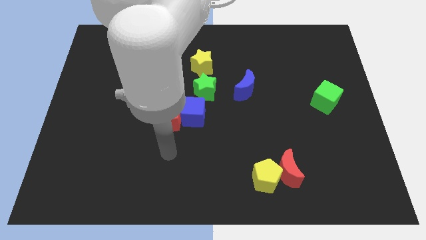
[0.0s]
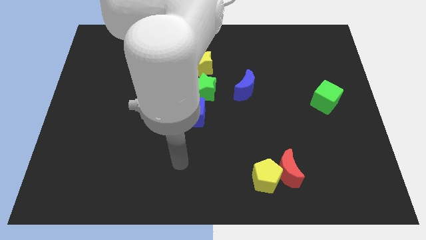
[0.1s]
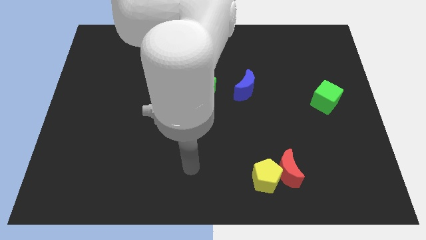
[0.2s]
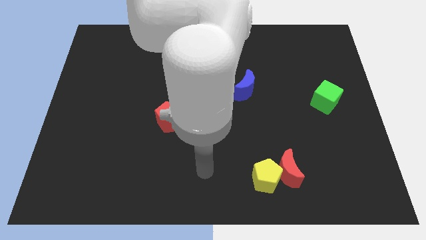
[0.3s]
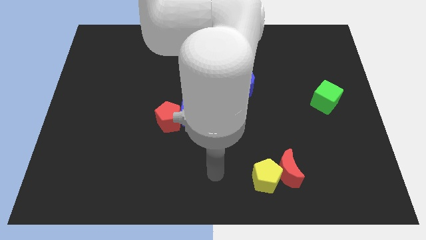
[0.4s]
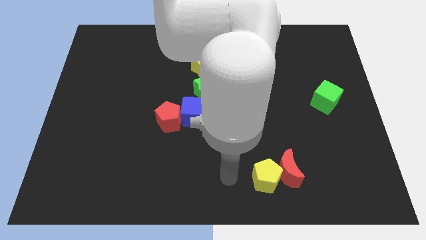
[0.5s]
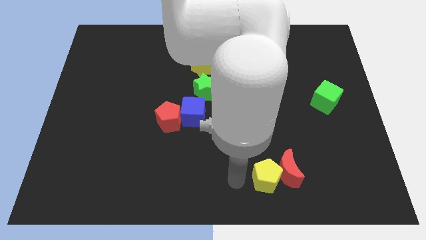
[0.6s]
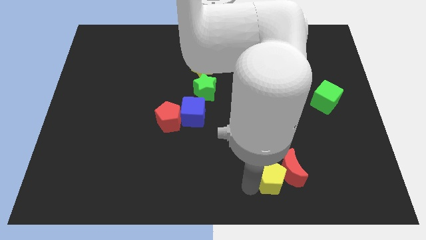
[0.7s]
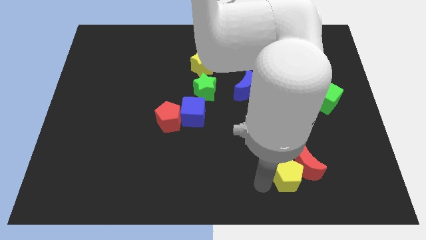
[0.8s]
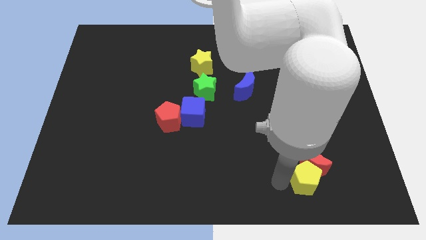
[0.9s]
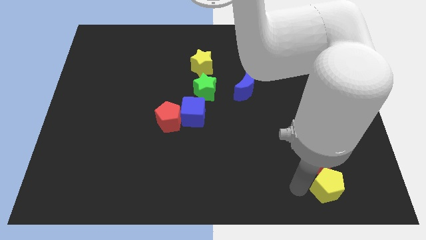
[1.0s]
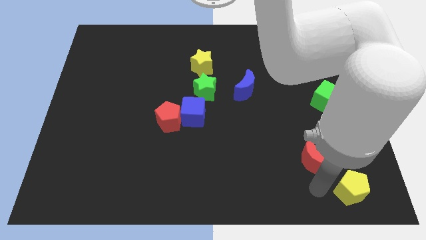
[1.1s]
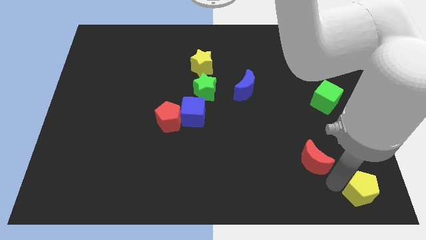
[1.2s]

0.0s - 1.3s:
separate the red moon from the yellow pentagon

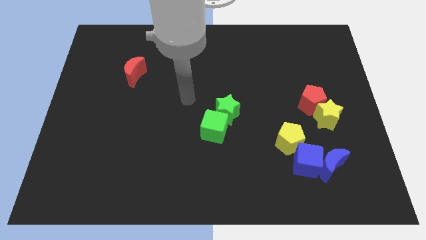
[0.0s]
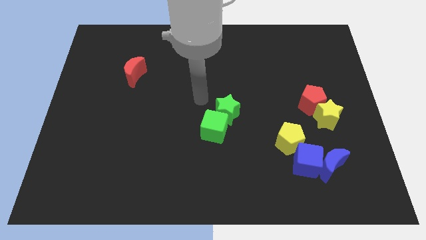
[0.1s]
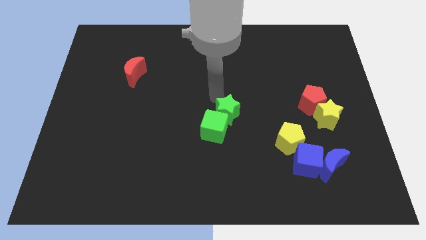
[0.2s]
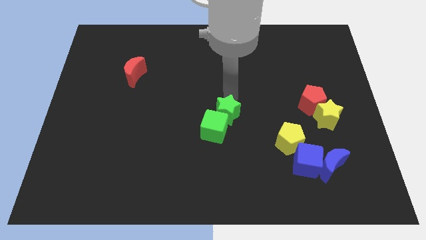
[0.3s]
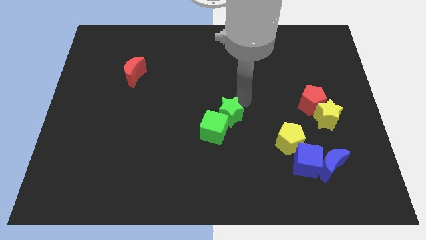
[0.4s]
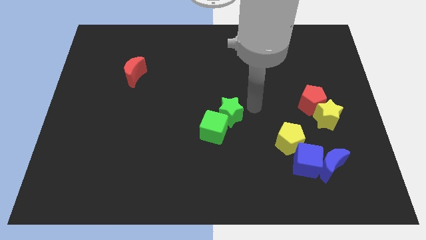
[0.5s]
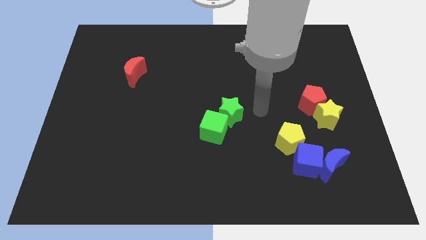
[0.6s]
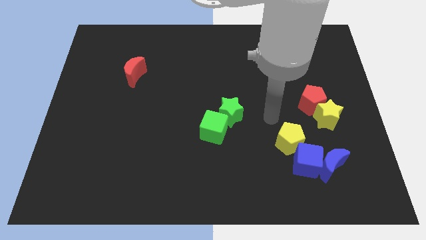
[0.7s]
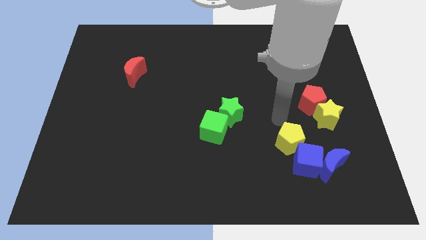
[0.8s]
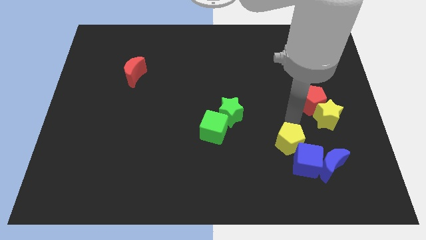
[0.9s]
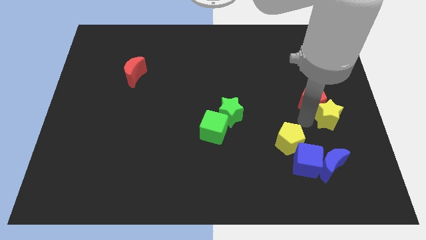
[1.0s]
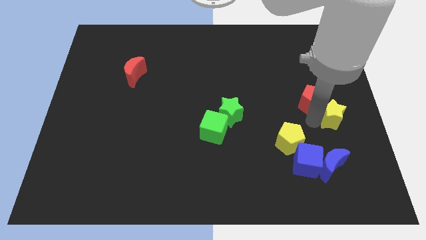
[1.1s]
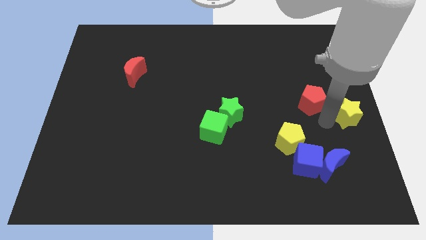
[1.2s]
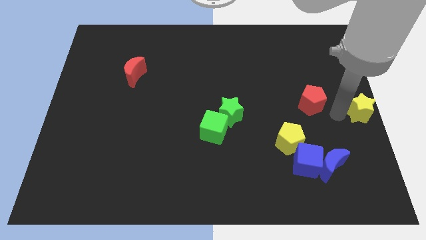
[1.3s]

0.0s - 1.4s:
move the red pentagon away from the yellow star

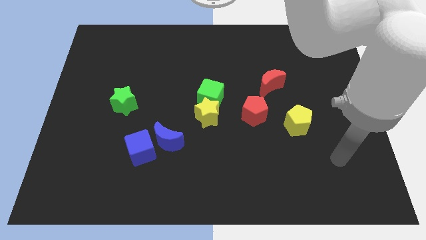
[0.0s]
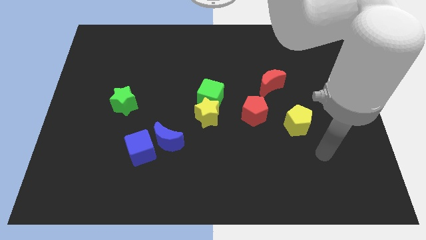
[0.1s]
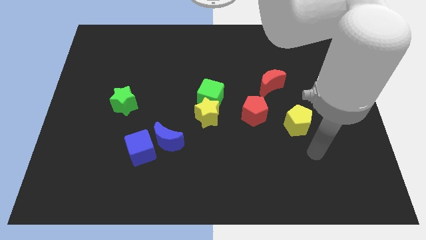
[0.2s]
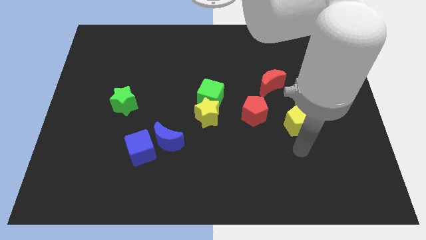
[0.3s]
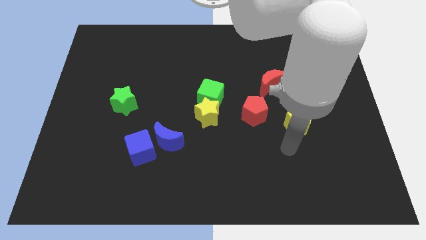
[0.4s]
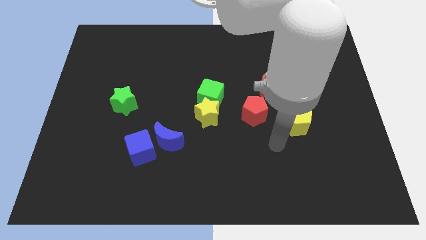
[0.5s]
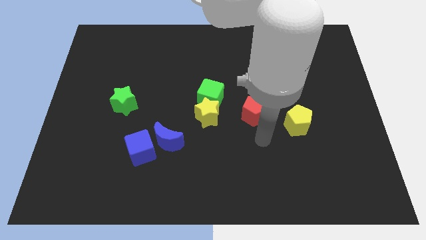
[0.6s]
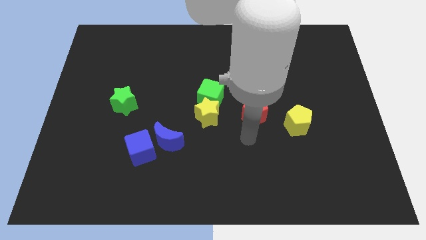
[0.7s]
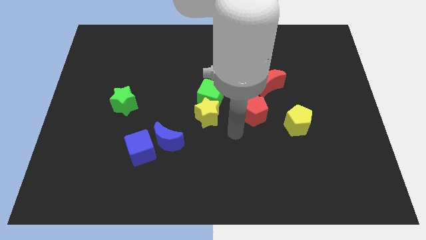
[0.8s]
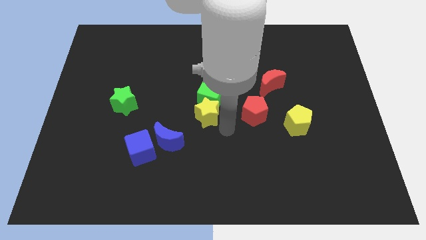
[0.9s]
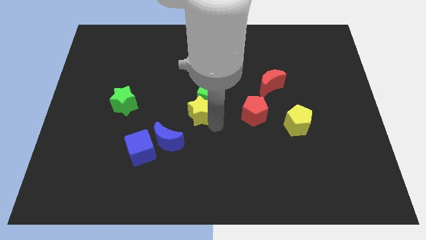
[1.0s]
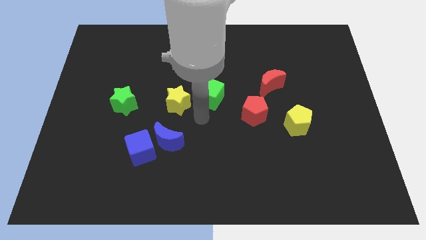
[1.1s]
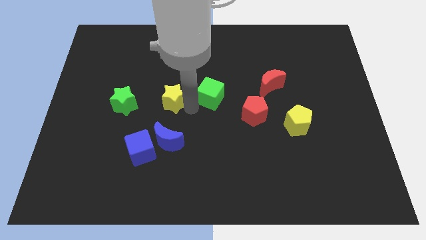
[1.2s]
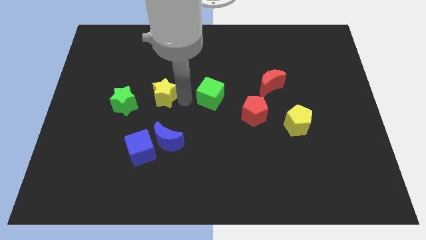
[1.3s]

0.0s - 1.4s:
separate the green cube from the yellow star

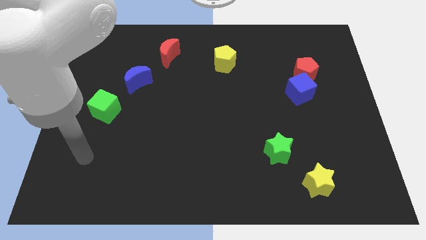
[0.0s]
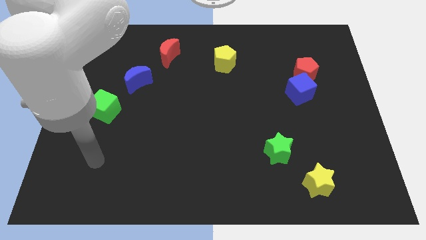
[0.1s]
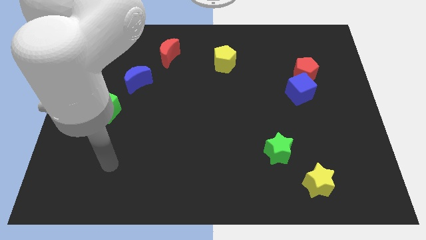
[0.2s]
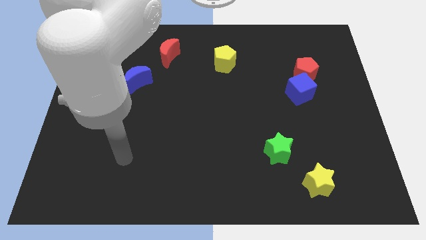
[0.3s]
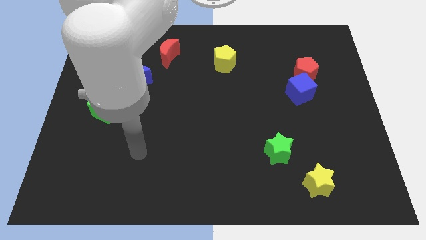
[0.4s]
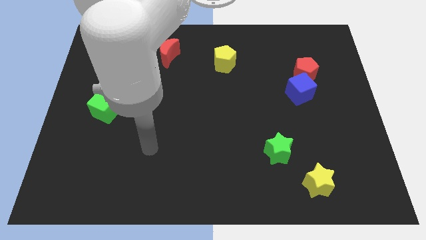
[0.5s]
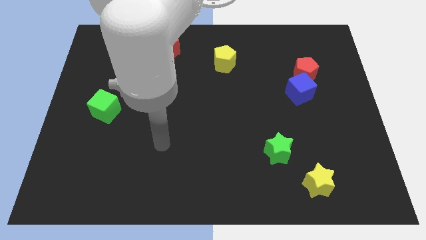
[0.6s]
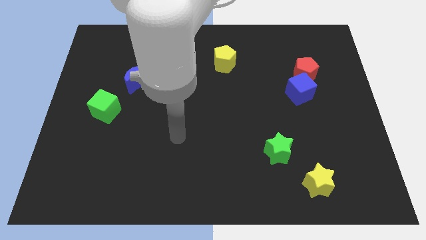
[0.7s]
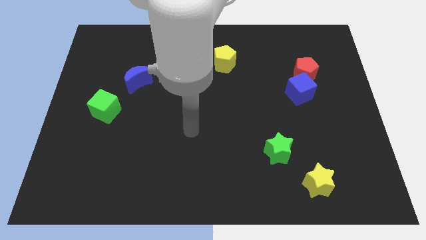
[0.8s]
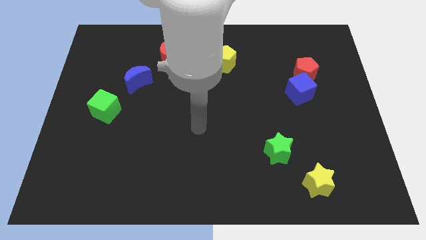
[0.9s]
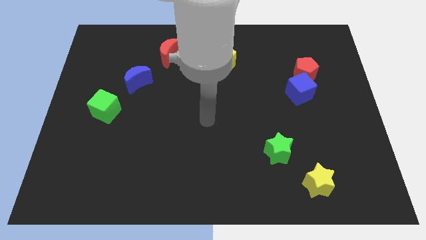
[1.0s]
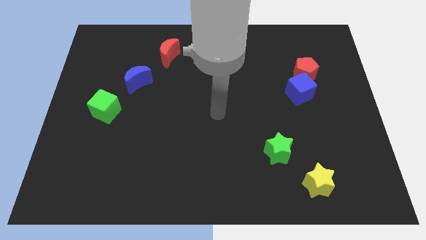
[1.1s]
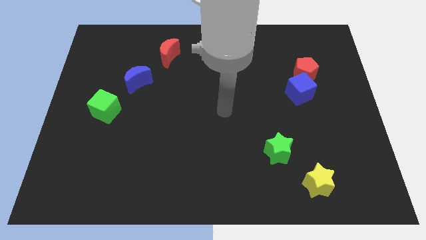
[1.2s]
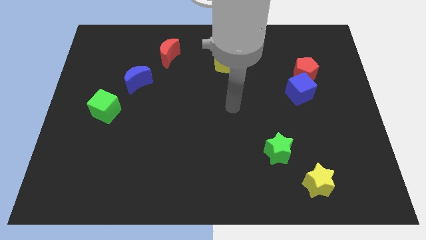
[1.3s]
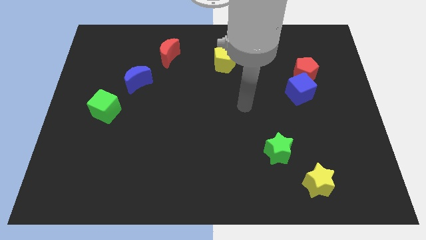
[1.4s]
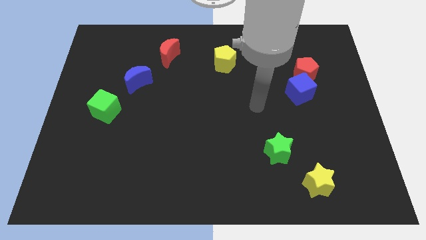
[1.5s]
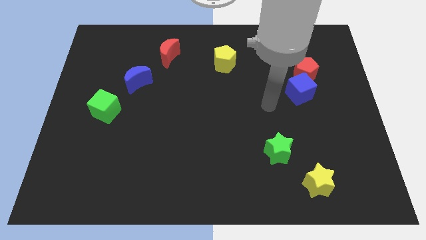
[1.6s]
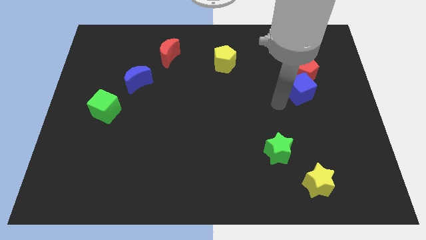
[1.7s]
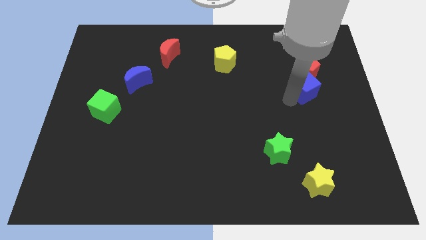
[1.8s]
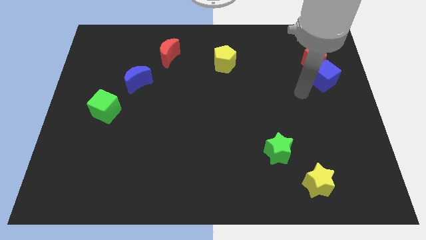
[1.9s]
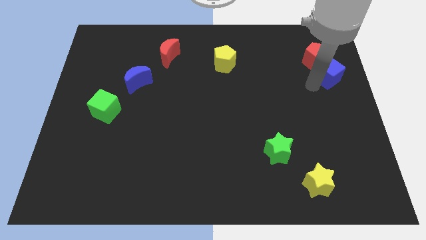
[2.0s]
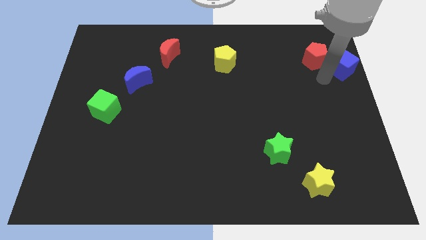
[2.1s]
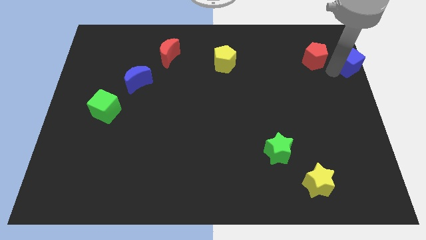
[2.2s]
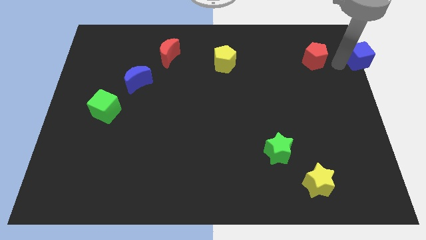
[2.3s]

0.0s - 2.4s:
move the red pentagon away from the blue cube

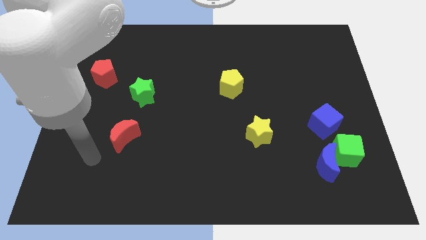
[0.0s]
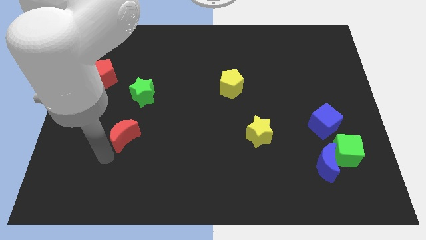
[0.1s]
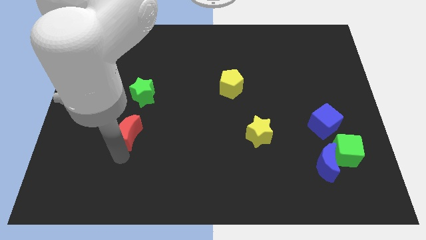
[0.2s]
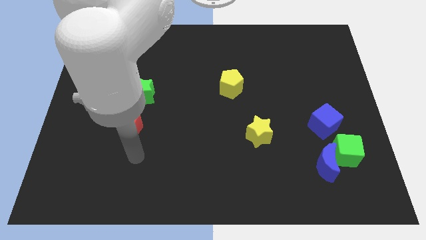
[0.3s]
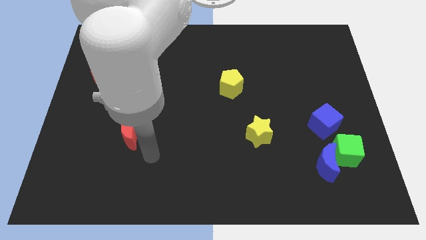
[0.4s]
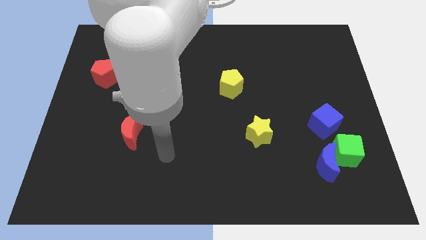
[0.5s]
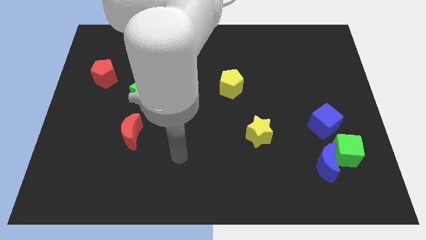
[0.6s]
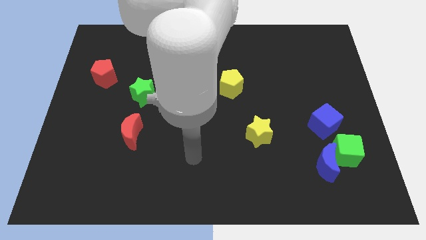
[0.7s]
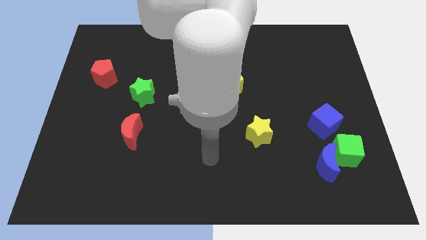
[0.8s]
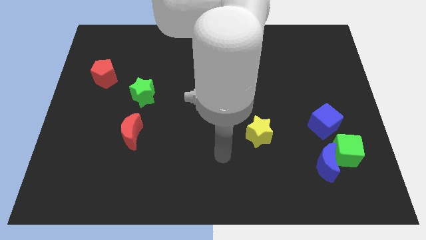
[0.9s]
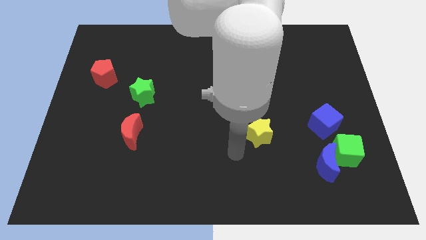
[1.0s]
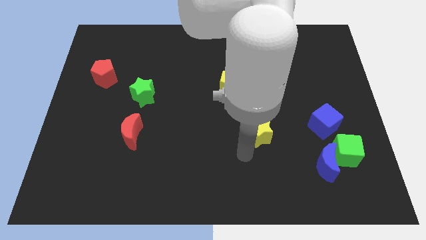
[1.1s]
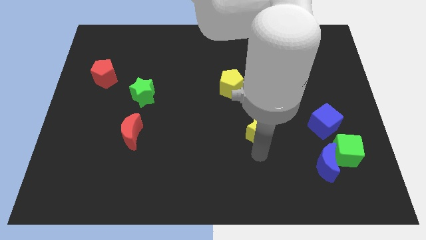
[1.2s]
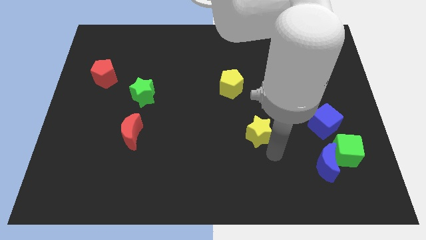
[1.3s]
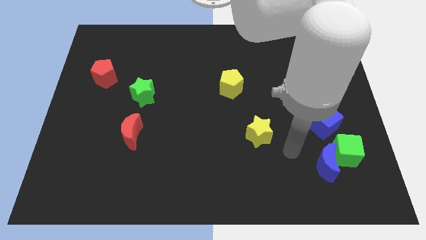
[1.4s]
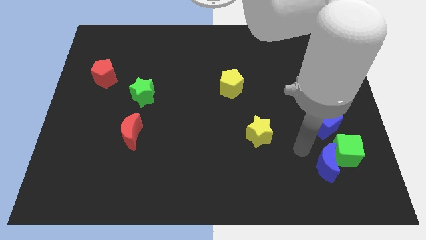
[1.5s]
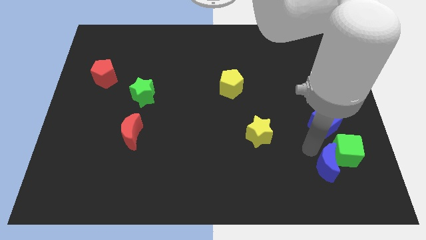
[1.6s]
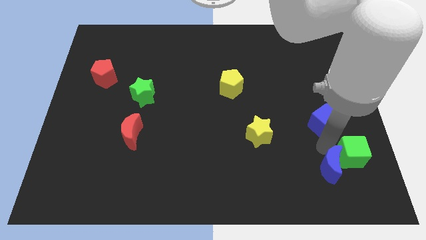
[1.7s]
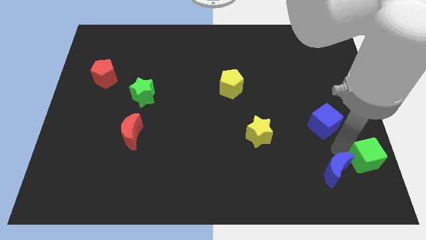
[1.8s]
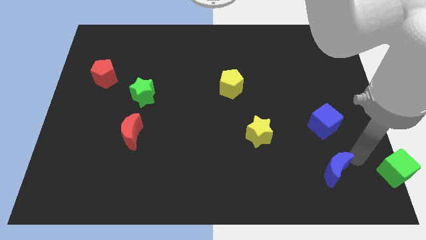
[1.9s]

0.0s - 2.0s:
separate the blue moon from the green cube

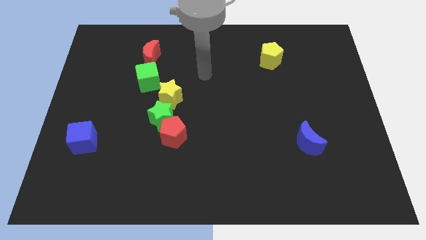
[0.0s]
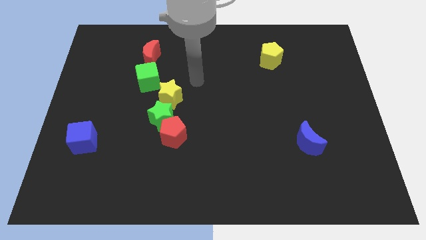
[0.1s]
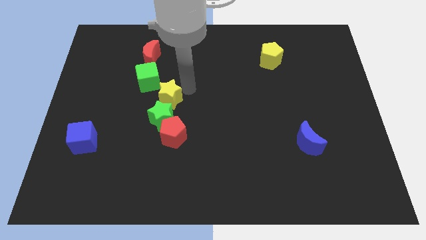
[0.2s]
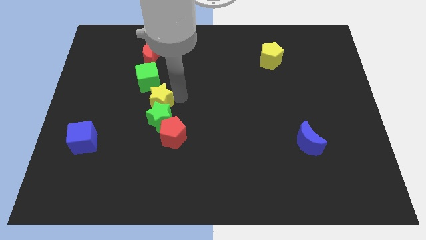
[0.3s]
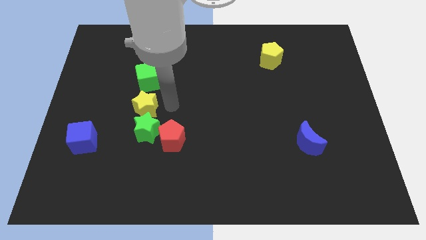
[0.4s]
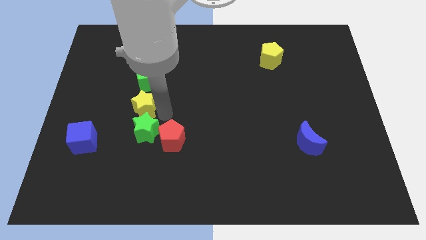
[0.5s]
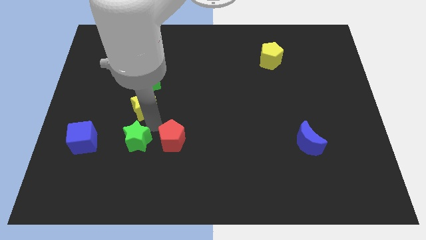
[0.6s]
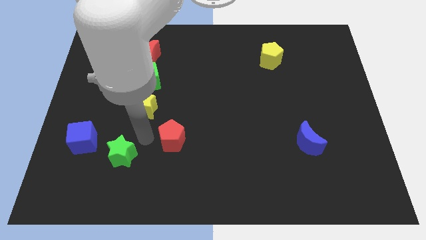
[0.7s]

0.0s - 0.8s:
pull the red pentagon apart from the green star
